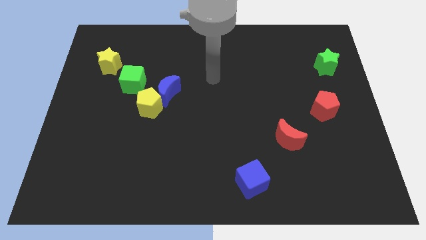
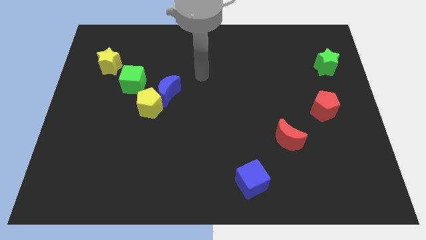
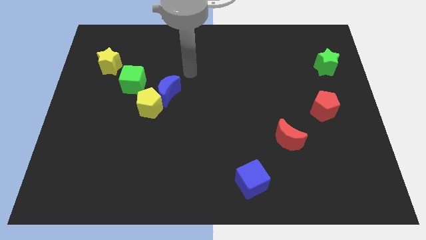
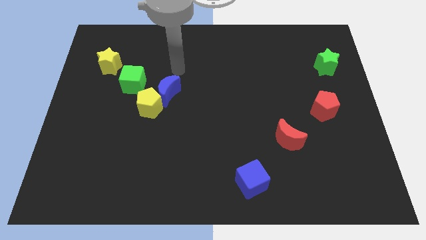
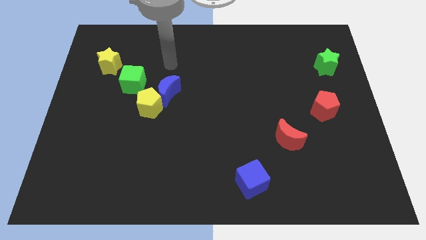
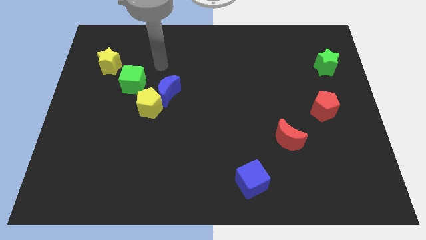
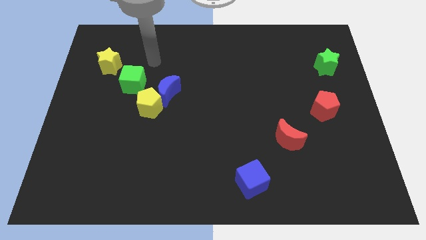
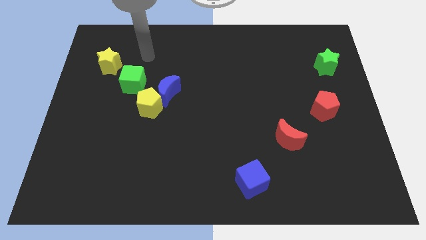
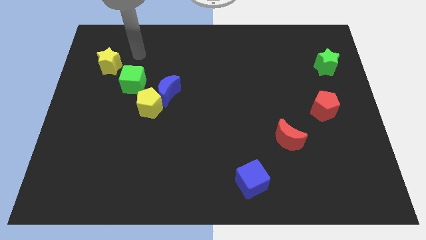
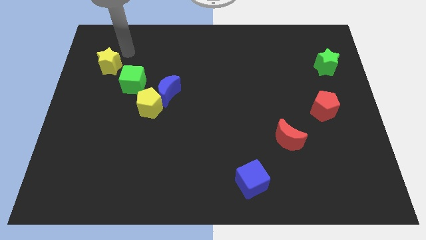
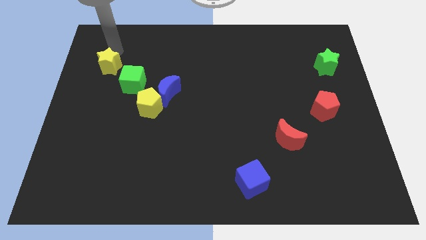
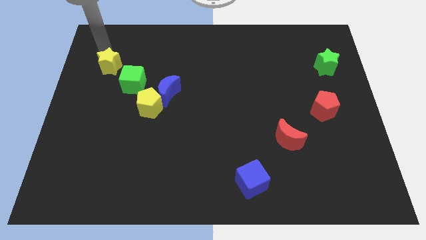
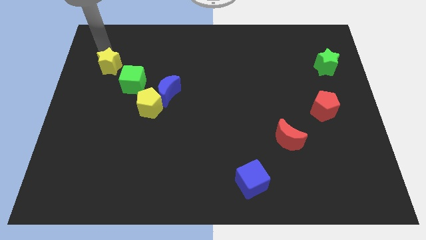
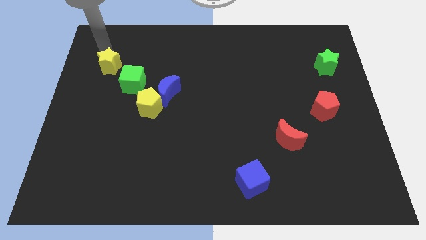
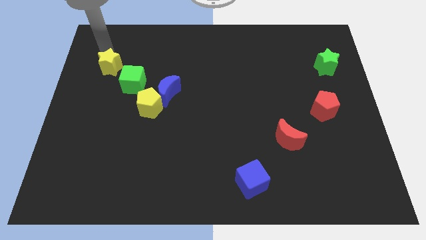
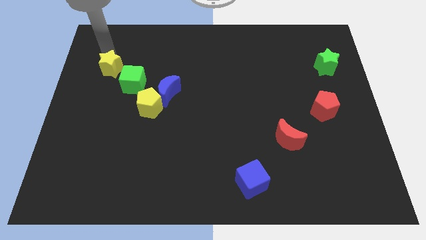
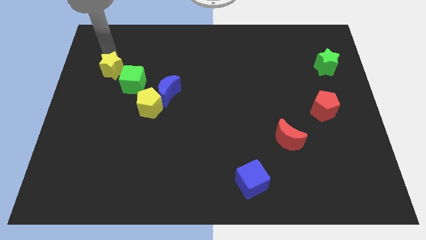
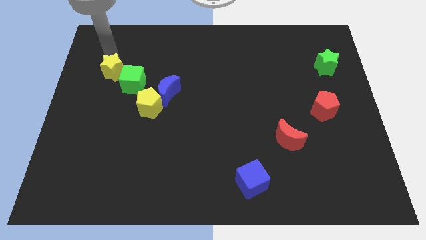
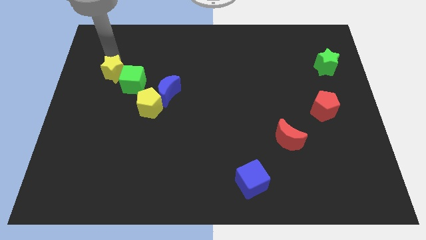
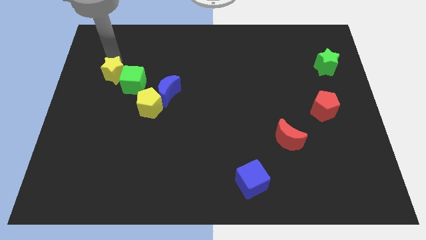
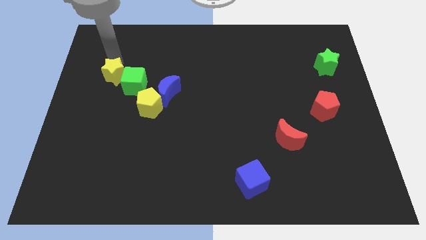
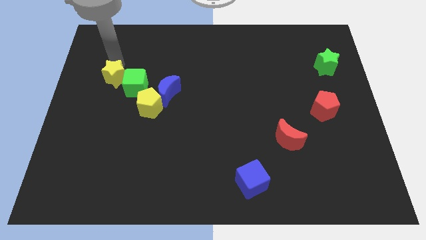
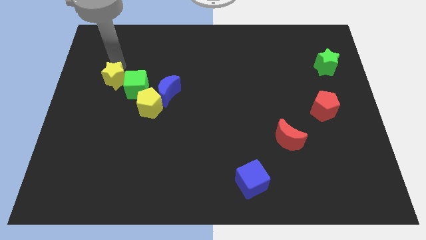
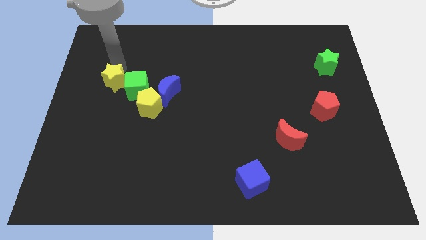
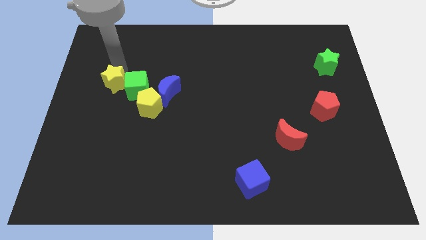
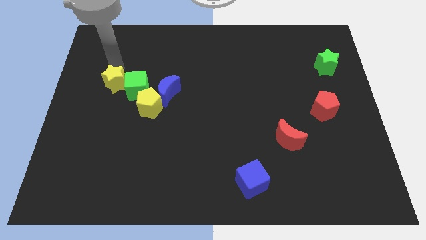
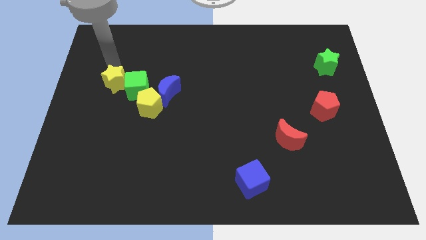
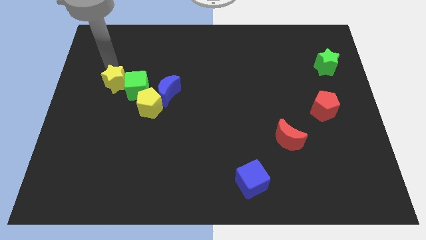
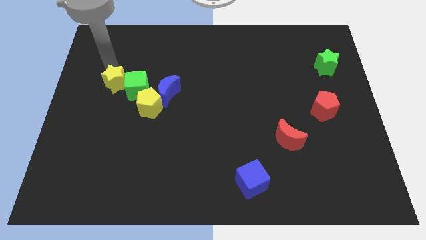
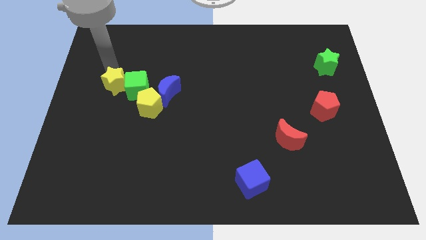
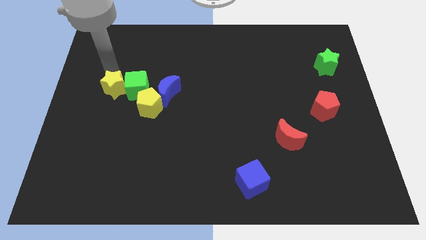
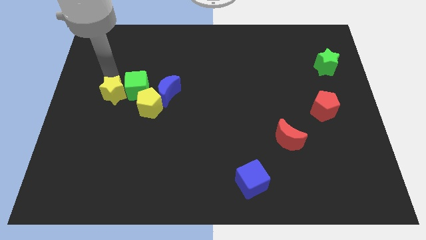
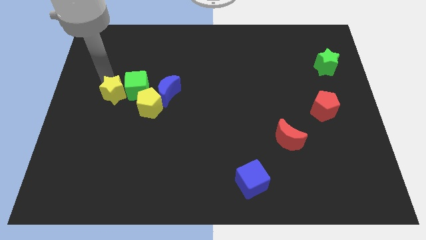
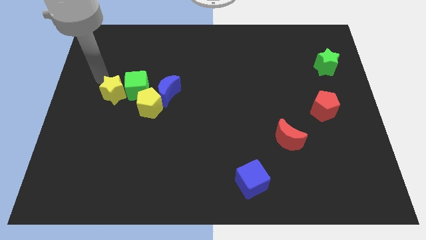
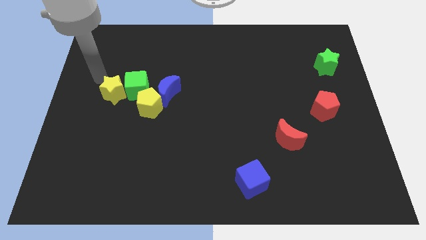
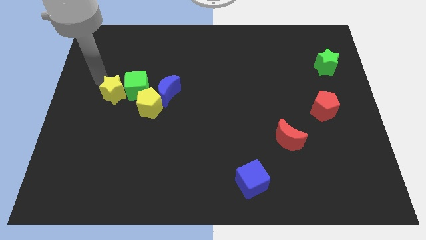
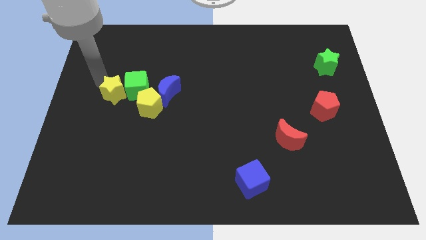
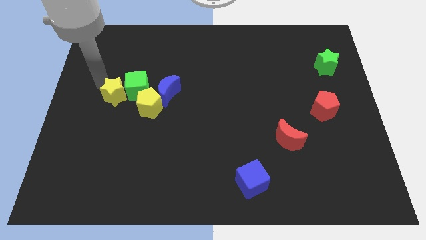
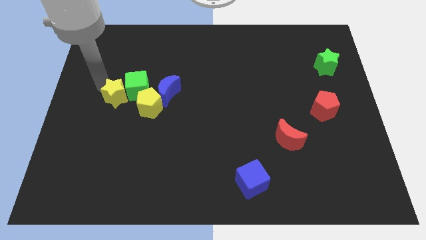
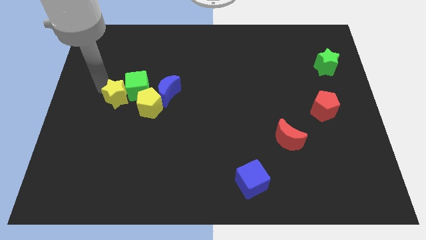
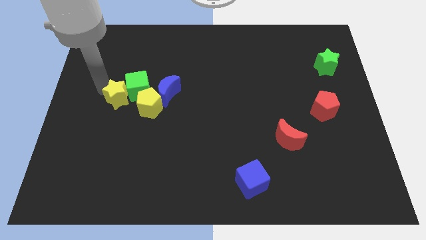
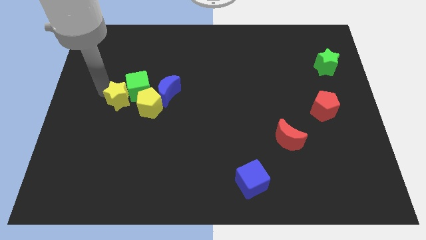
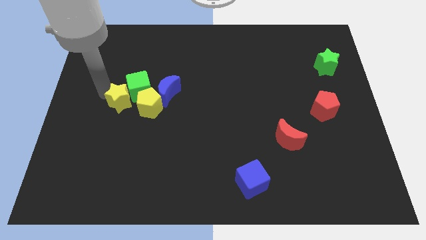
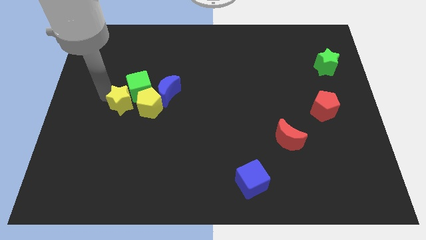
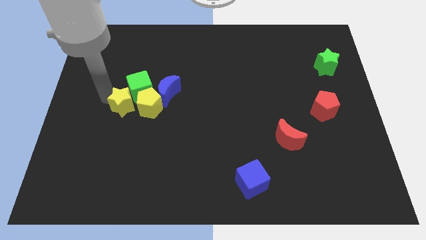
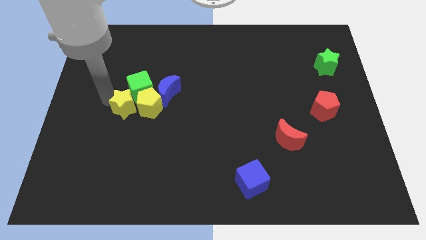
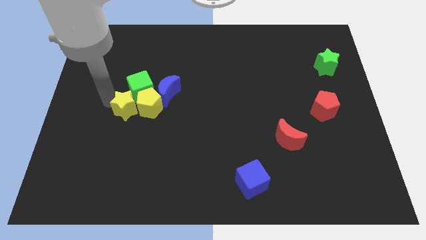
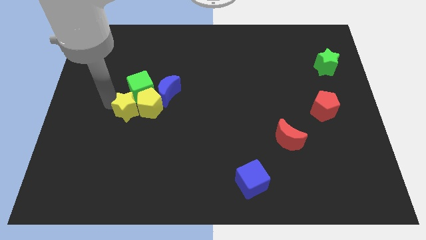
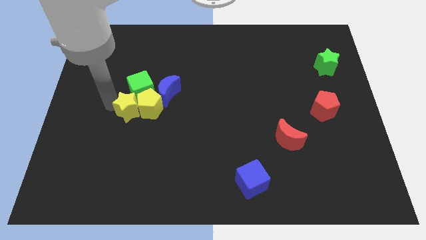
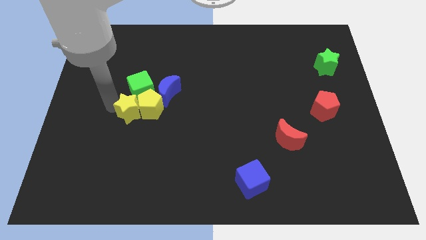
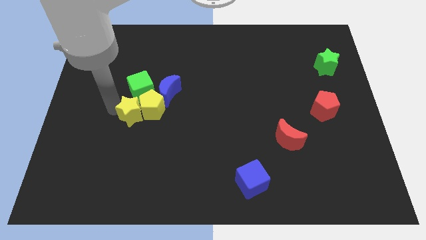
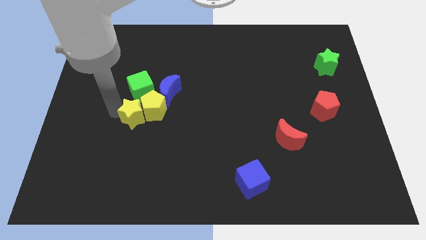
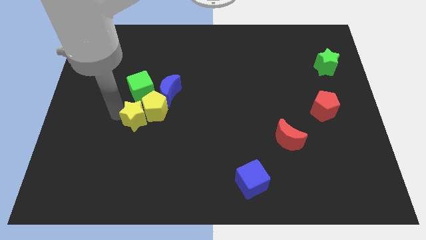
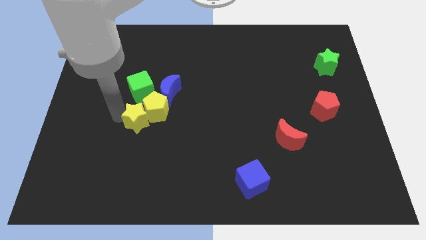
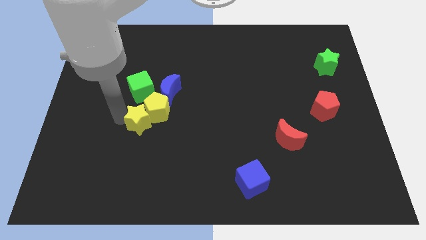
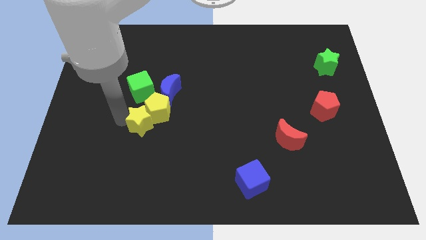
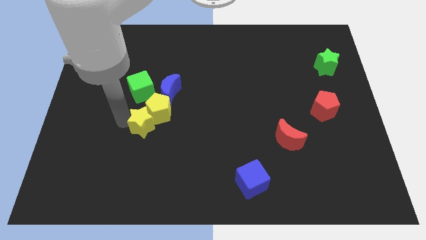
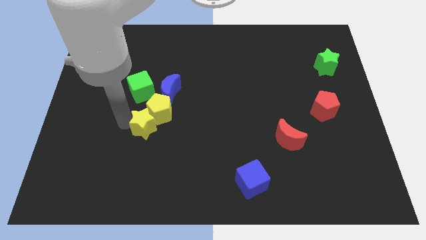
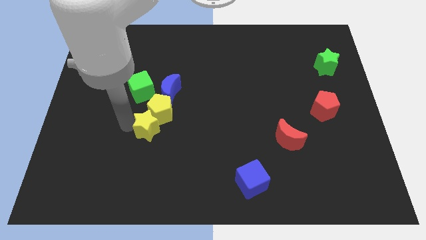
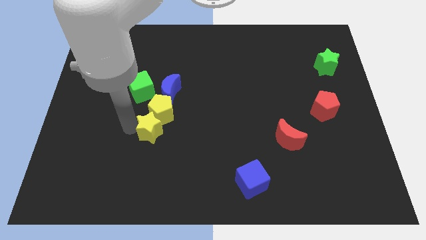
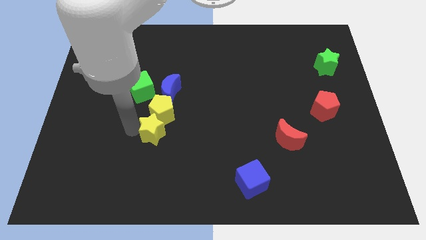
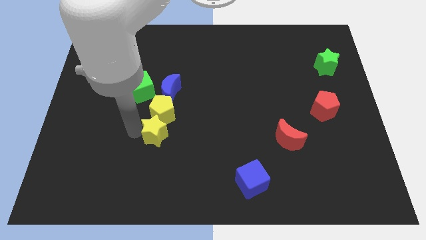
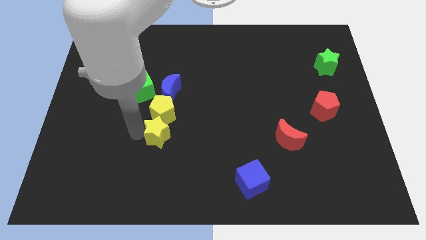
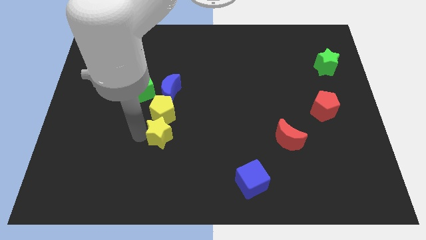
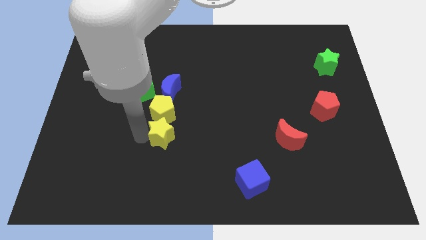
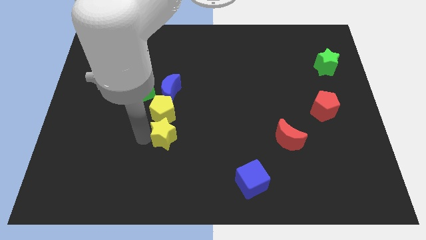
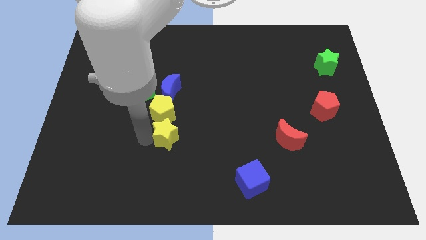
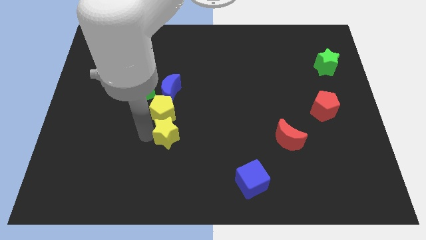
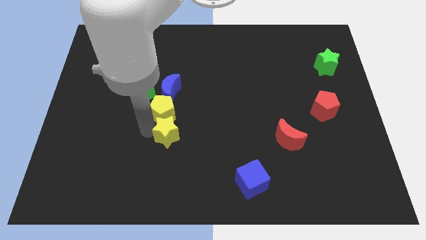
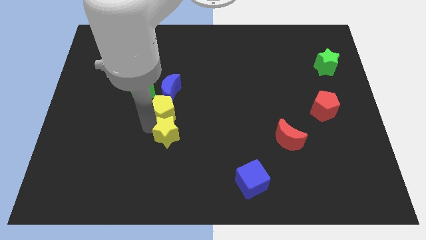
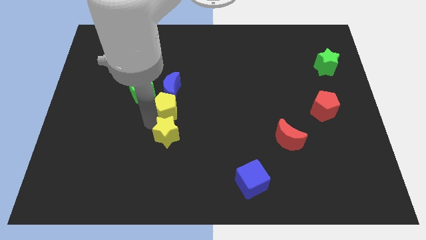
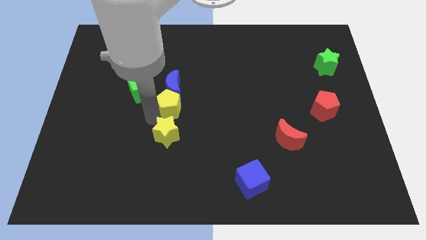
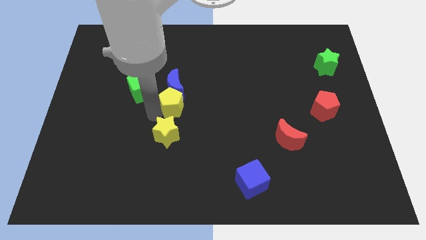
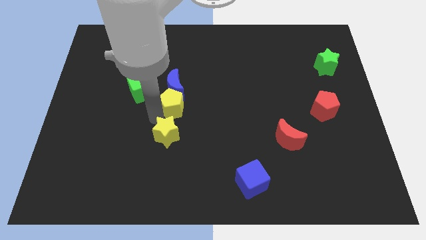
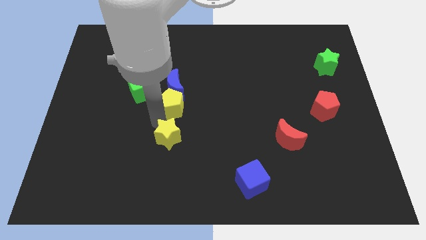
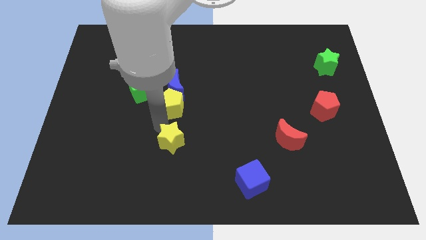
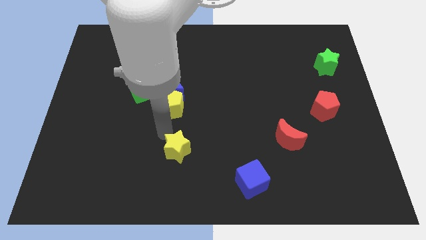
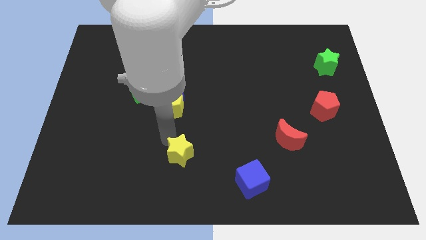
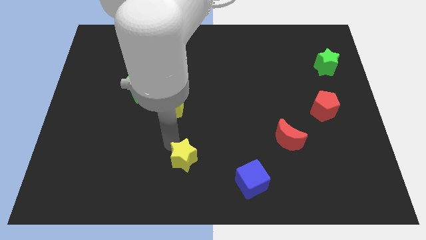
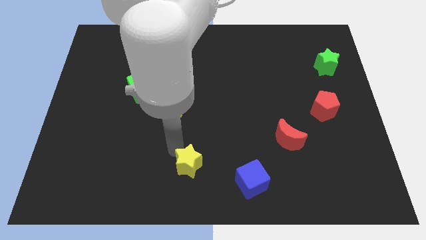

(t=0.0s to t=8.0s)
push the yellow star left of the blue cube
